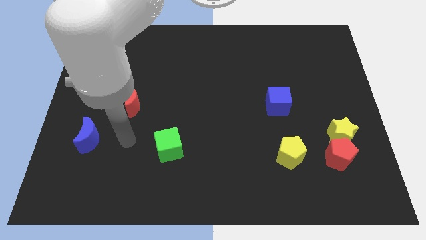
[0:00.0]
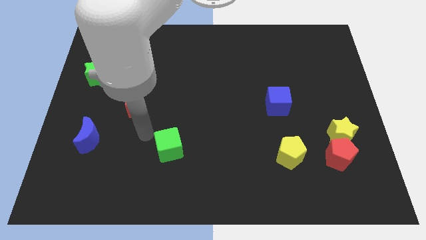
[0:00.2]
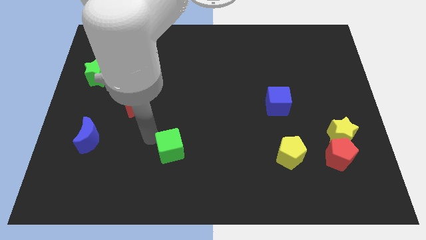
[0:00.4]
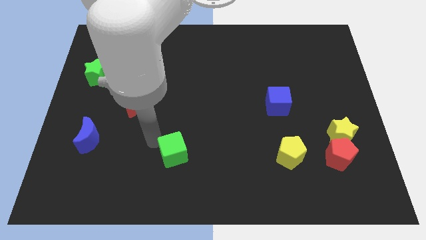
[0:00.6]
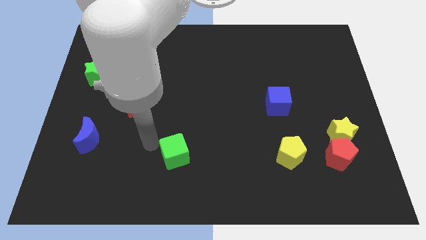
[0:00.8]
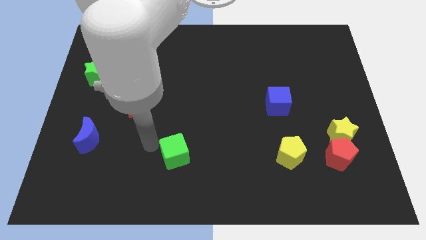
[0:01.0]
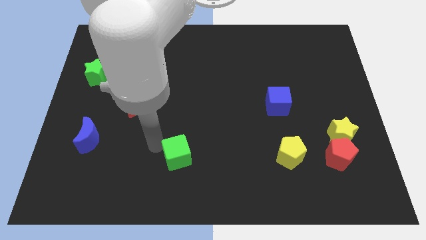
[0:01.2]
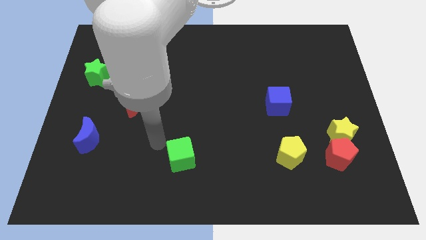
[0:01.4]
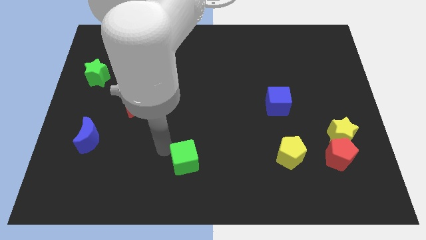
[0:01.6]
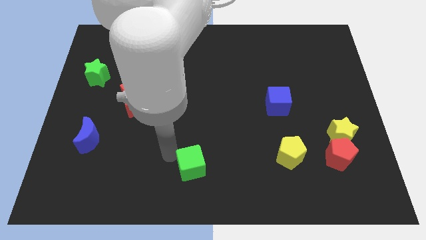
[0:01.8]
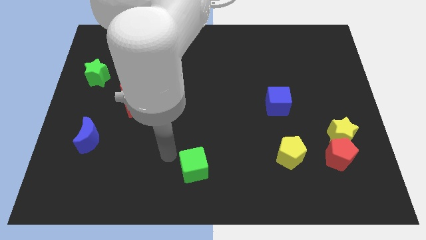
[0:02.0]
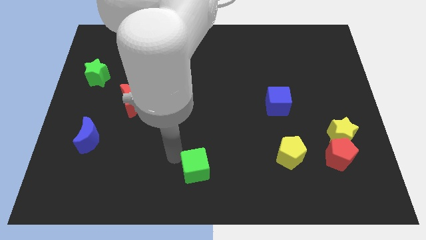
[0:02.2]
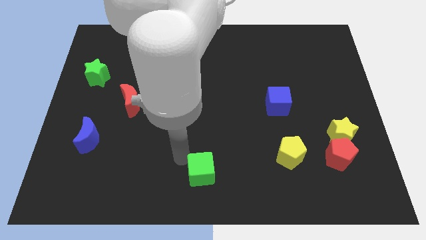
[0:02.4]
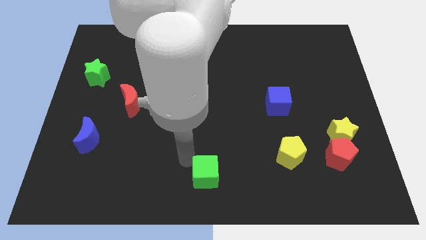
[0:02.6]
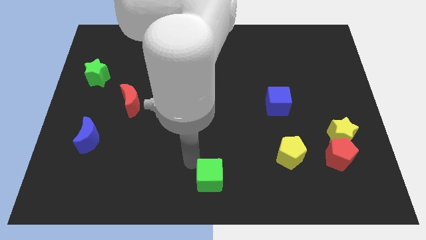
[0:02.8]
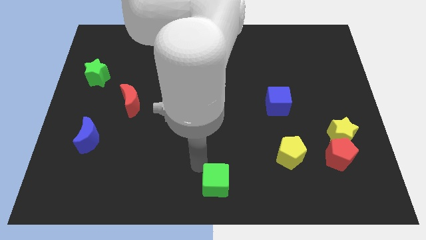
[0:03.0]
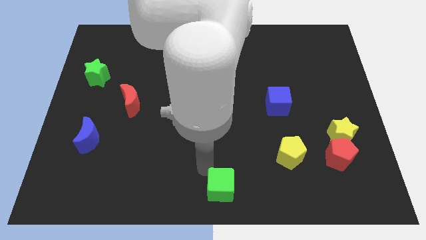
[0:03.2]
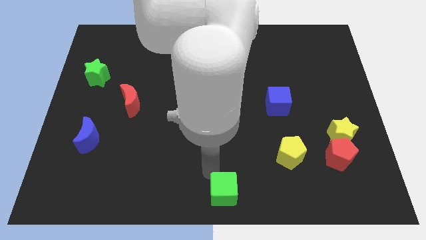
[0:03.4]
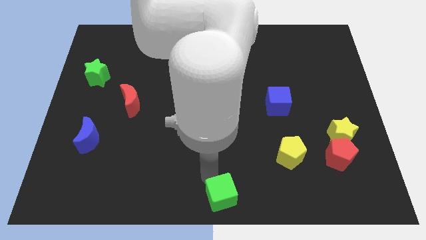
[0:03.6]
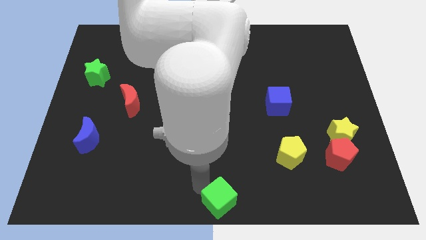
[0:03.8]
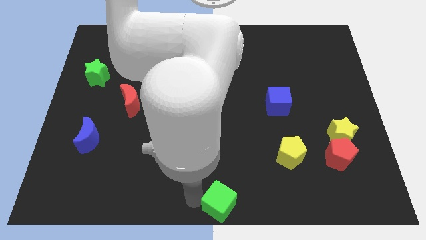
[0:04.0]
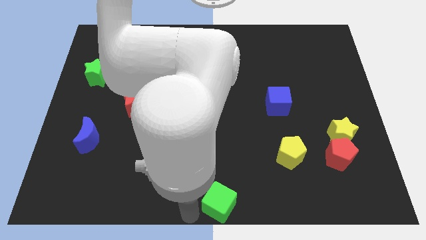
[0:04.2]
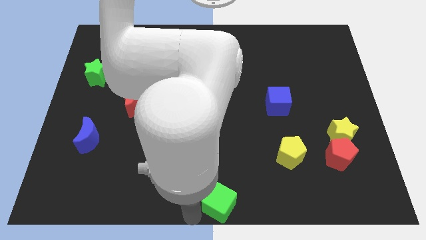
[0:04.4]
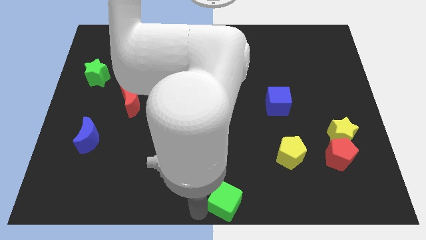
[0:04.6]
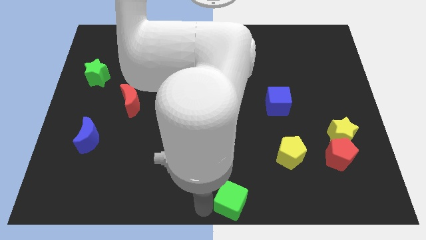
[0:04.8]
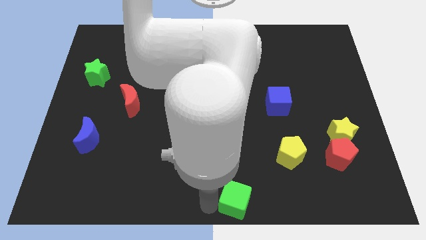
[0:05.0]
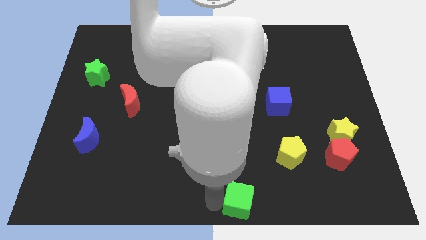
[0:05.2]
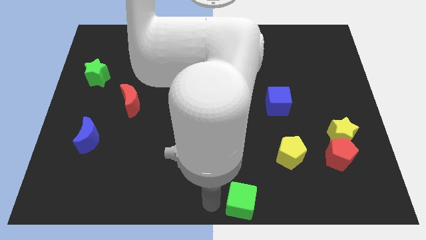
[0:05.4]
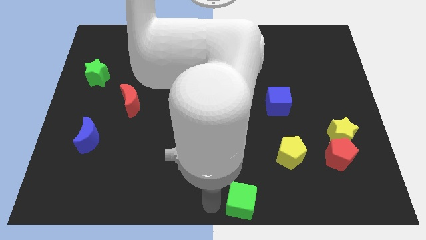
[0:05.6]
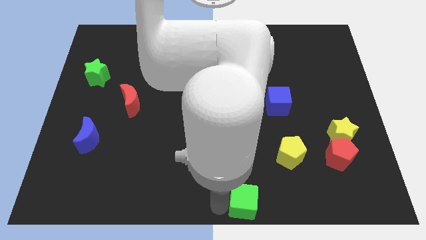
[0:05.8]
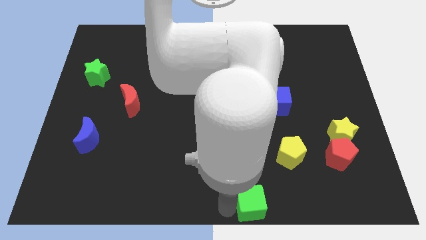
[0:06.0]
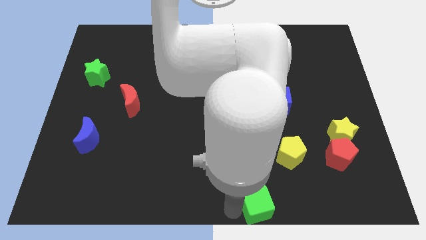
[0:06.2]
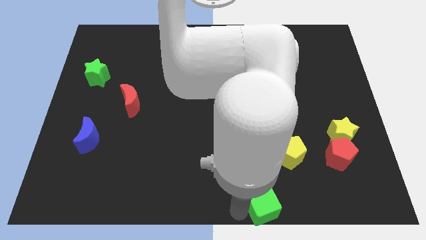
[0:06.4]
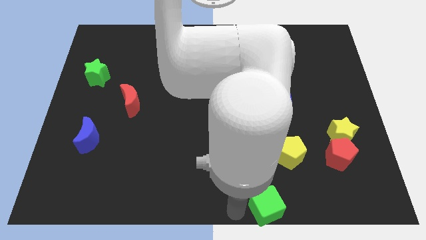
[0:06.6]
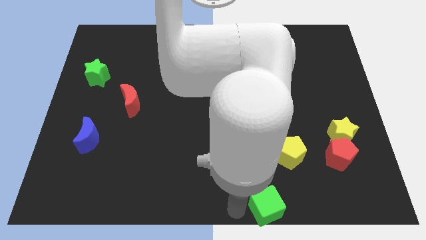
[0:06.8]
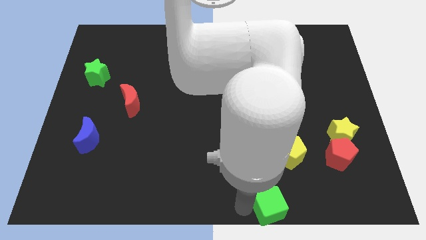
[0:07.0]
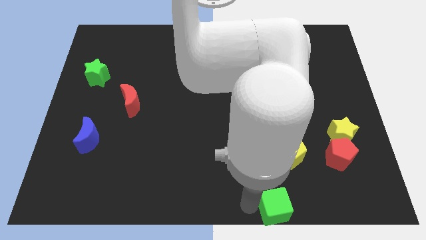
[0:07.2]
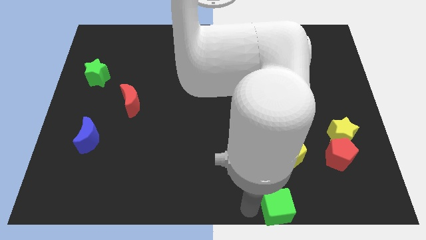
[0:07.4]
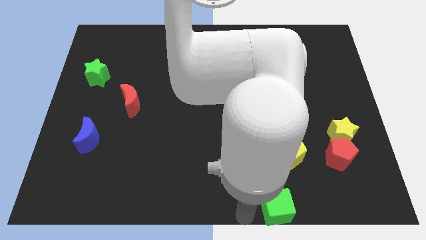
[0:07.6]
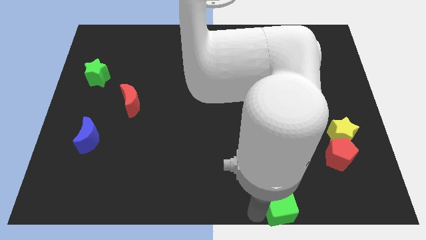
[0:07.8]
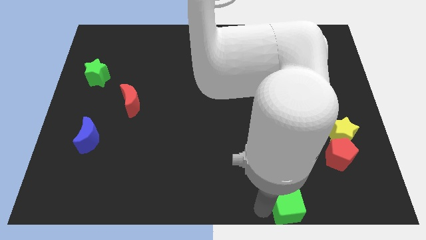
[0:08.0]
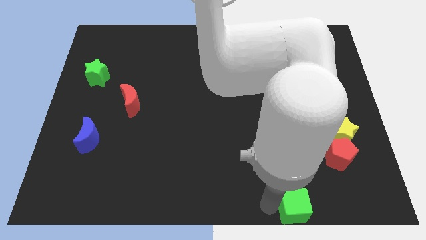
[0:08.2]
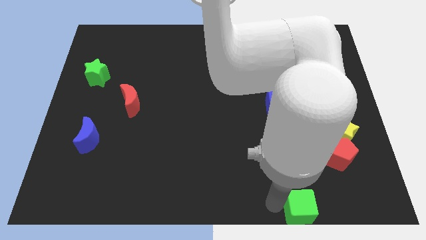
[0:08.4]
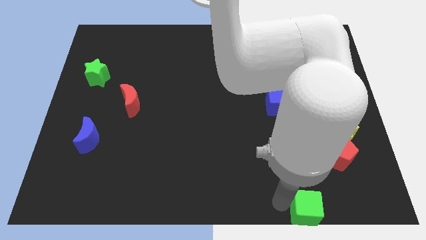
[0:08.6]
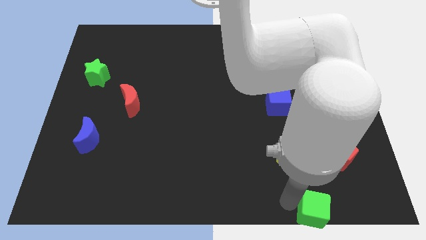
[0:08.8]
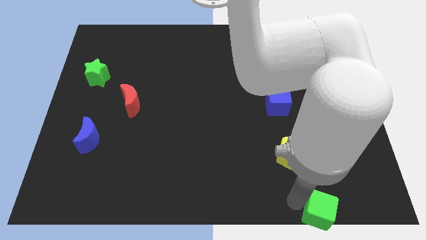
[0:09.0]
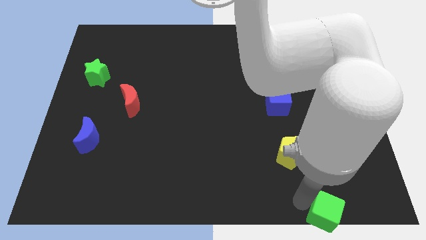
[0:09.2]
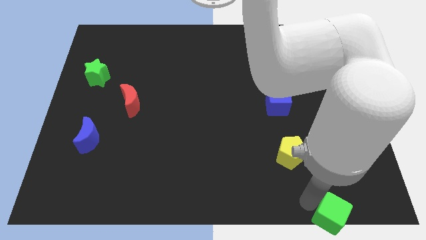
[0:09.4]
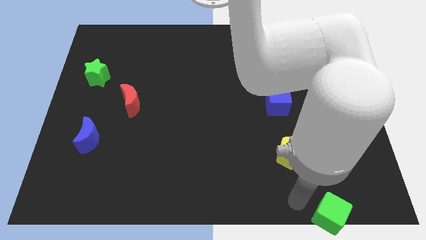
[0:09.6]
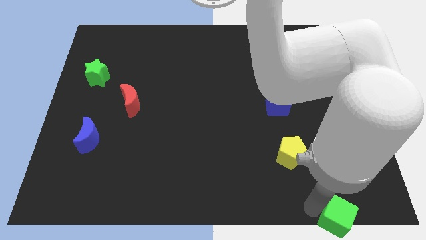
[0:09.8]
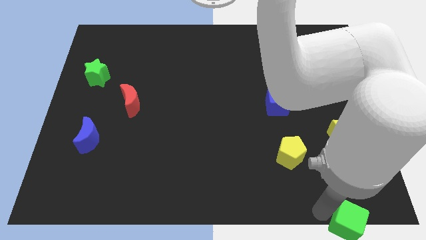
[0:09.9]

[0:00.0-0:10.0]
slide the green cube to the bottom right of the board
